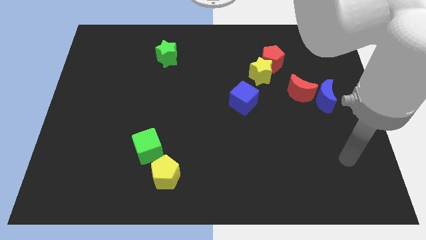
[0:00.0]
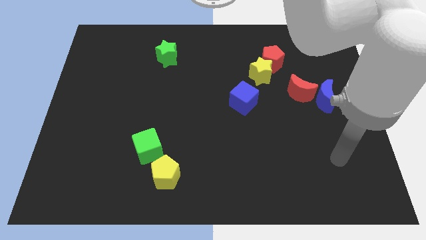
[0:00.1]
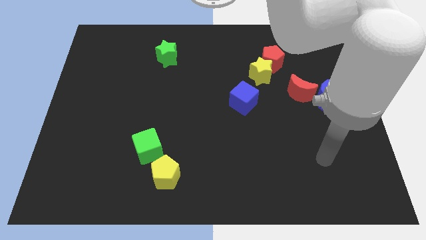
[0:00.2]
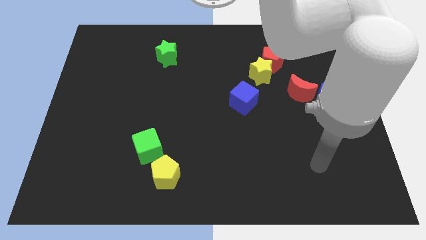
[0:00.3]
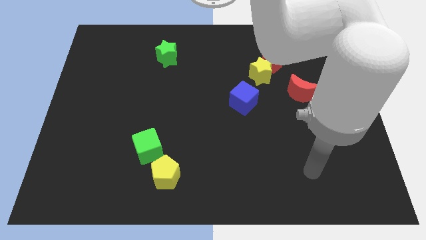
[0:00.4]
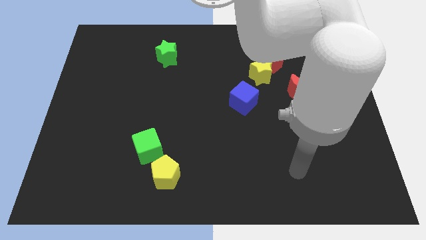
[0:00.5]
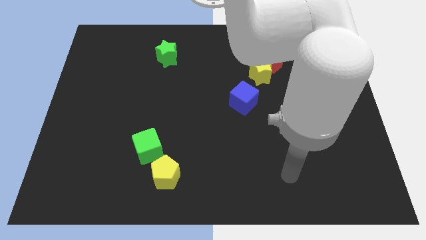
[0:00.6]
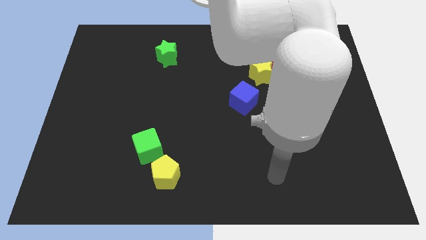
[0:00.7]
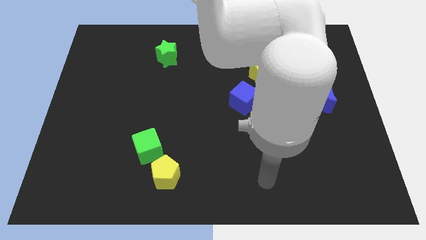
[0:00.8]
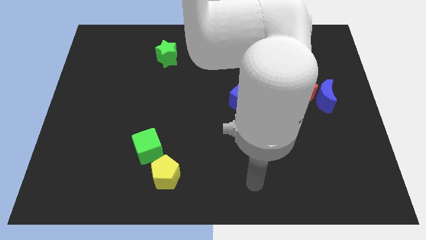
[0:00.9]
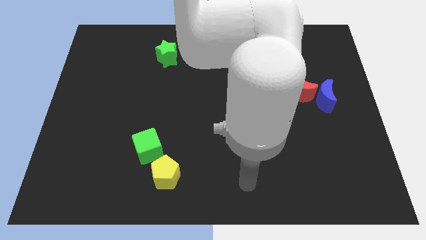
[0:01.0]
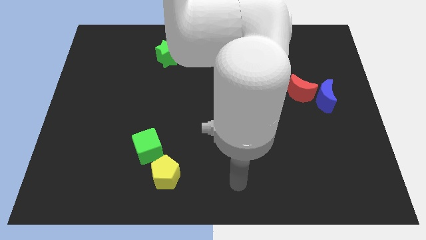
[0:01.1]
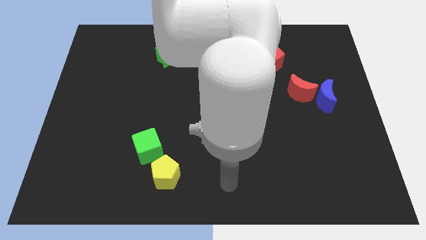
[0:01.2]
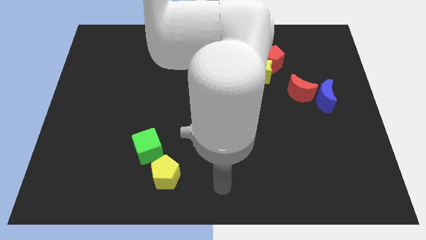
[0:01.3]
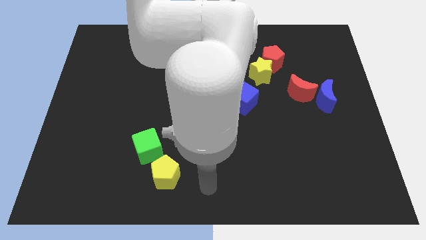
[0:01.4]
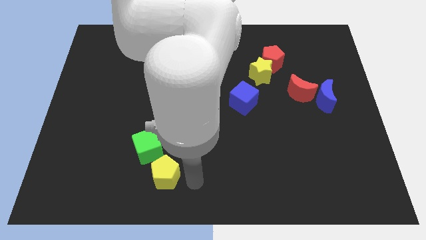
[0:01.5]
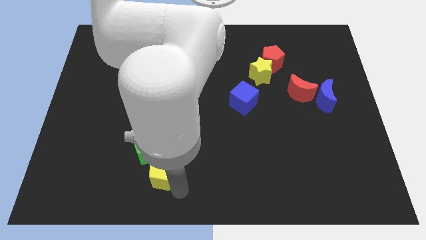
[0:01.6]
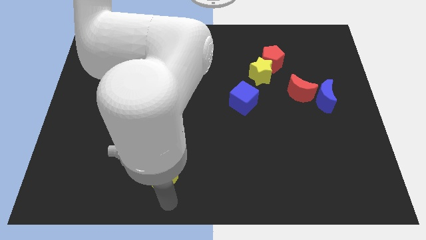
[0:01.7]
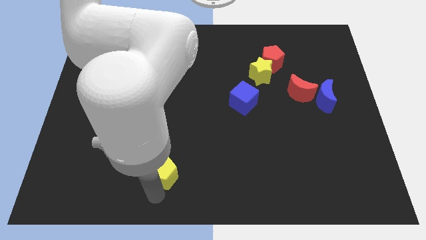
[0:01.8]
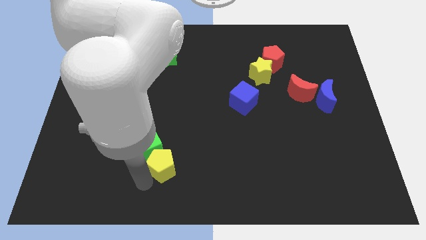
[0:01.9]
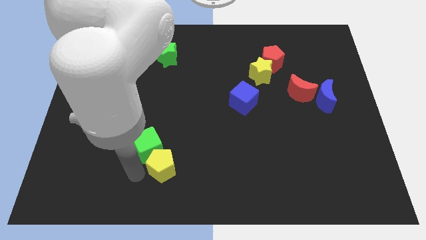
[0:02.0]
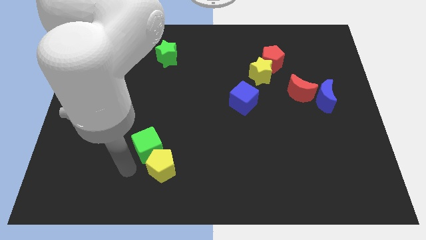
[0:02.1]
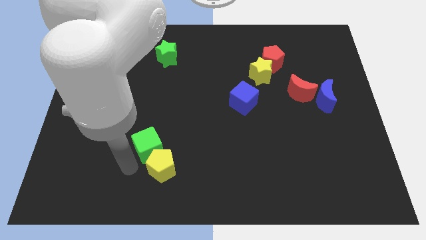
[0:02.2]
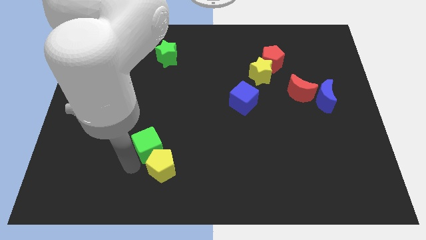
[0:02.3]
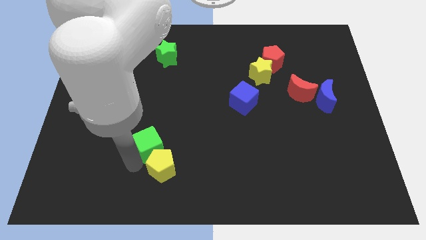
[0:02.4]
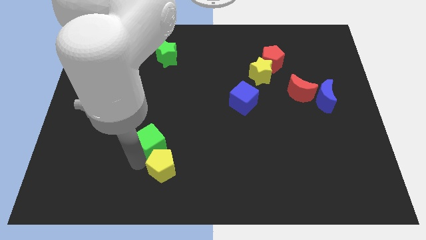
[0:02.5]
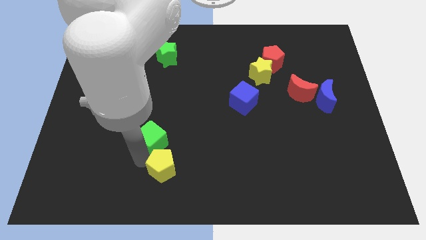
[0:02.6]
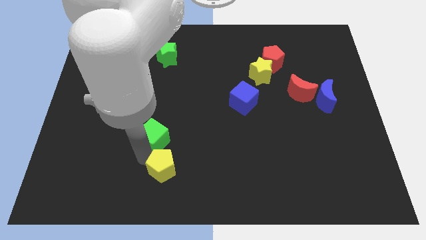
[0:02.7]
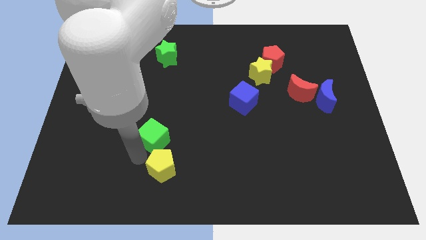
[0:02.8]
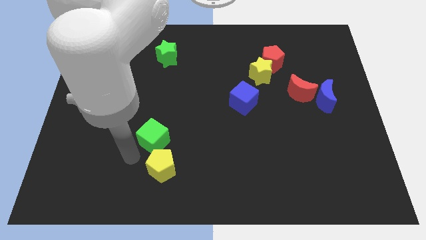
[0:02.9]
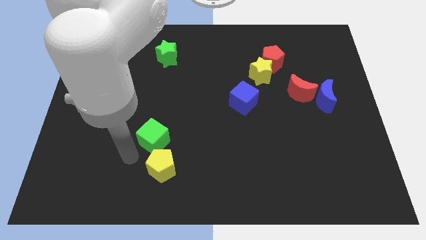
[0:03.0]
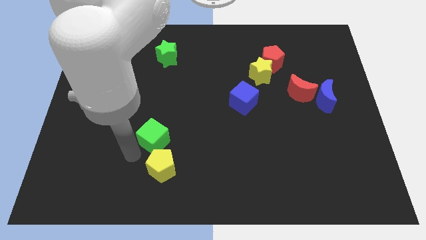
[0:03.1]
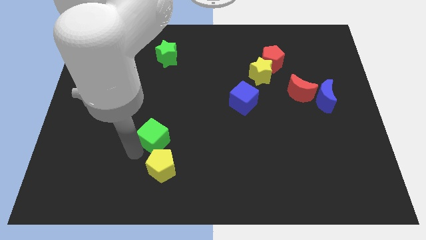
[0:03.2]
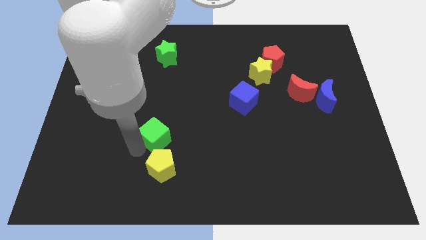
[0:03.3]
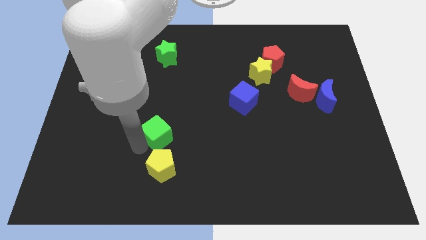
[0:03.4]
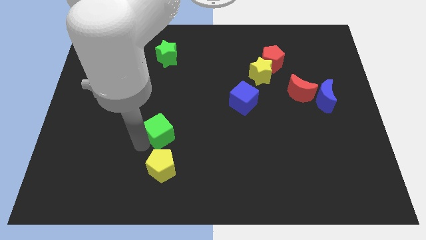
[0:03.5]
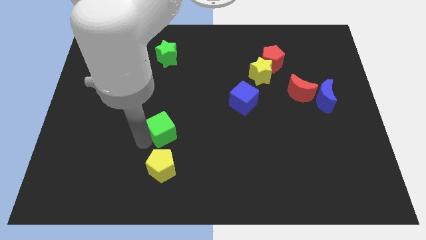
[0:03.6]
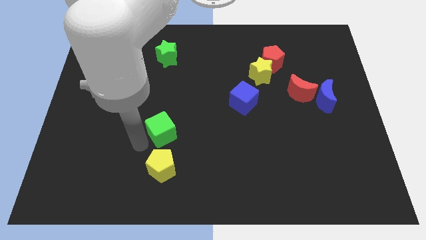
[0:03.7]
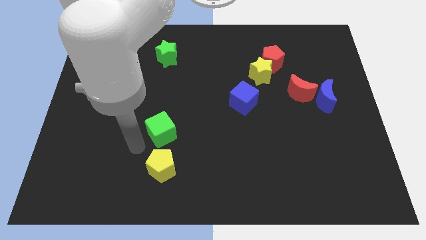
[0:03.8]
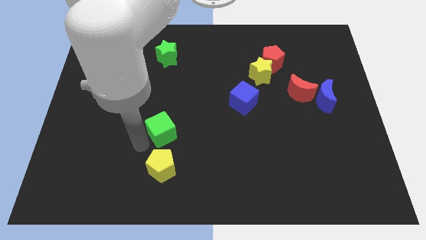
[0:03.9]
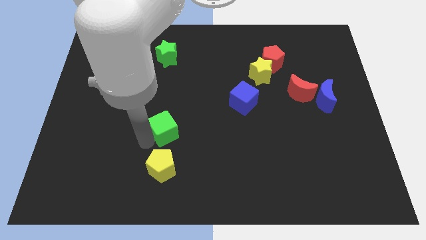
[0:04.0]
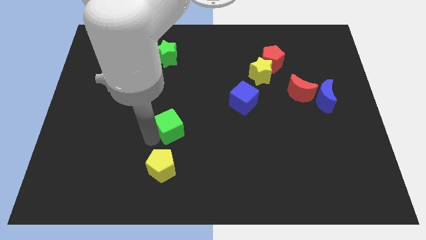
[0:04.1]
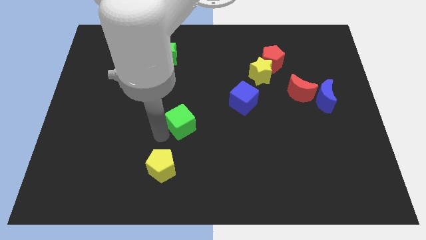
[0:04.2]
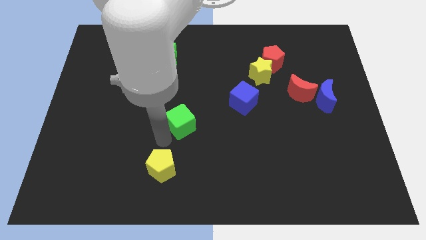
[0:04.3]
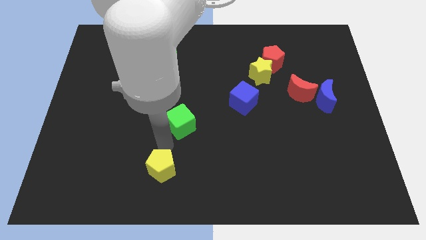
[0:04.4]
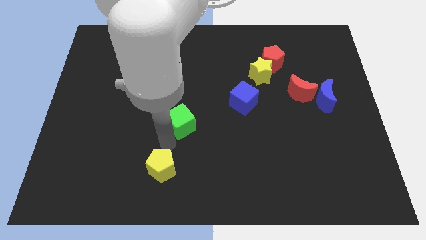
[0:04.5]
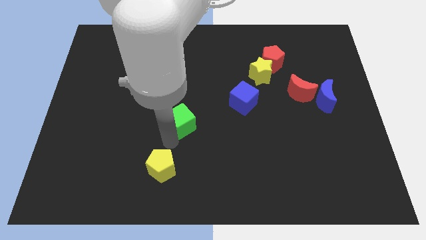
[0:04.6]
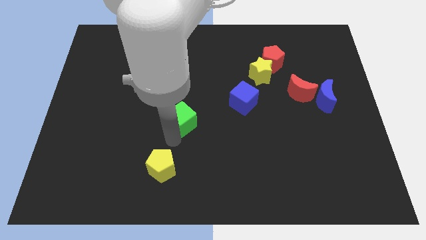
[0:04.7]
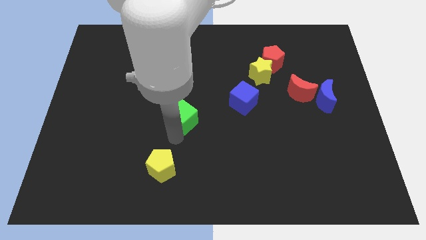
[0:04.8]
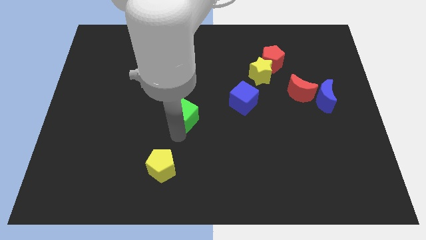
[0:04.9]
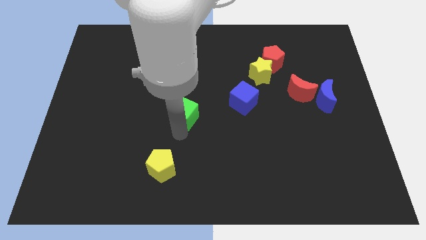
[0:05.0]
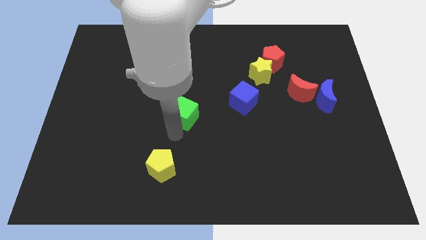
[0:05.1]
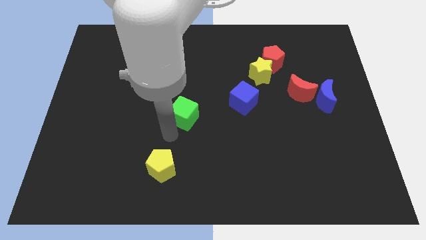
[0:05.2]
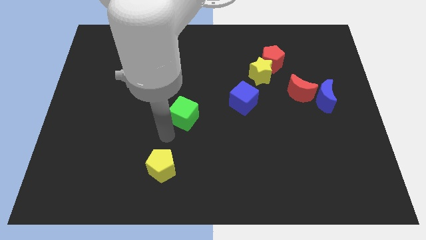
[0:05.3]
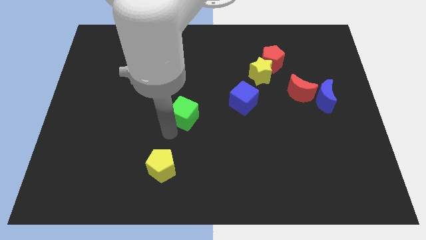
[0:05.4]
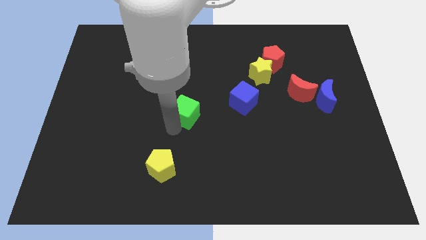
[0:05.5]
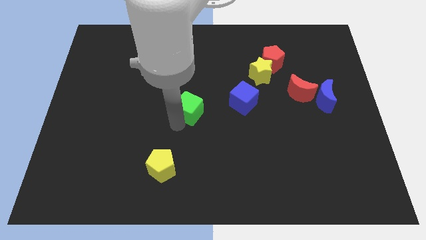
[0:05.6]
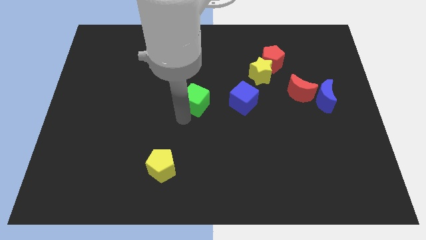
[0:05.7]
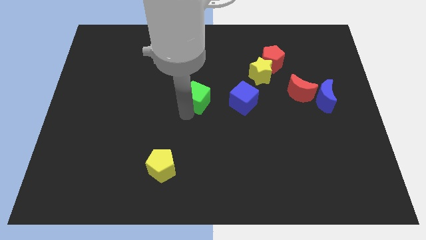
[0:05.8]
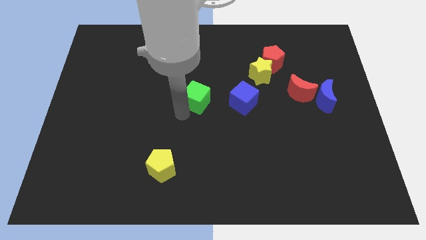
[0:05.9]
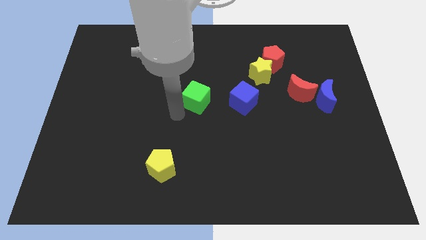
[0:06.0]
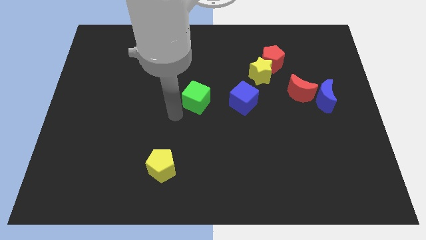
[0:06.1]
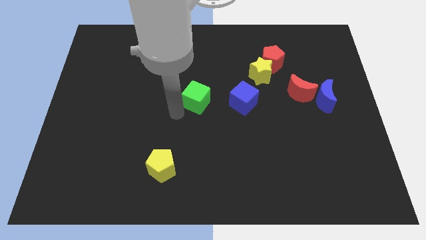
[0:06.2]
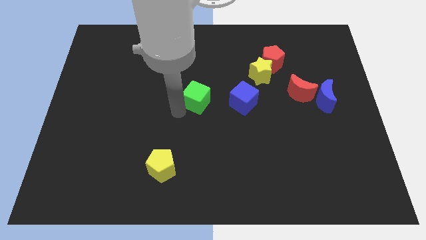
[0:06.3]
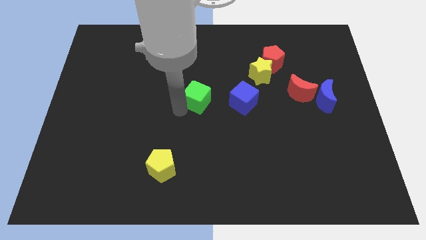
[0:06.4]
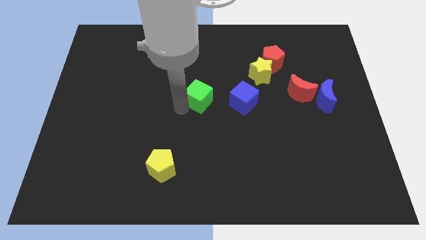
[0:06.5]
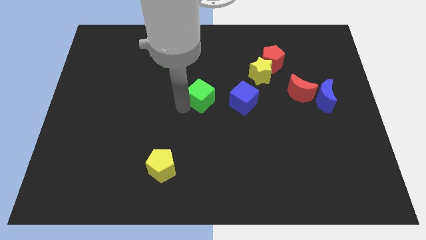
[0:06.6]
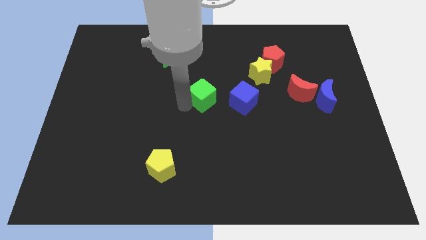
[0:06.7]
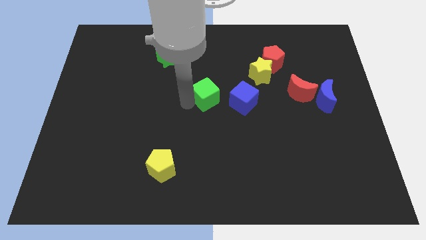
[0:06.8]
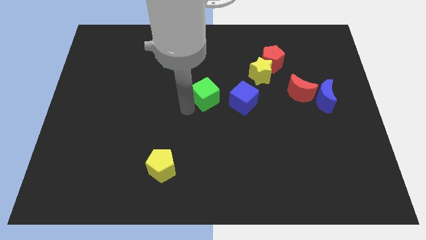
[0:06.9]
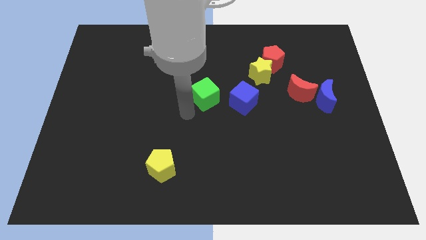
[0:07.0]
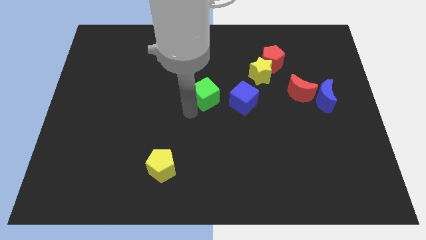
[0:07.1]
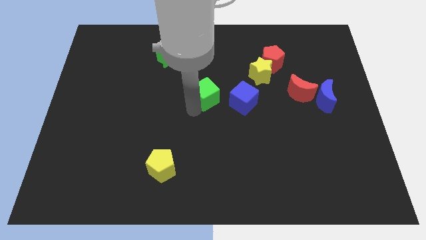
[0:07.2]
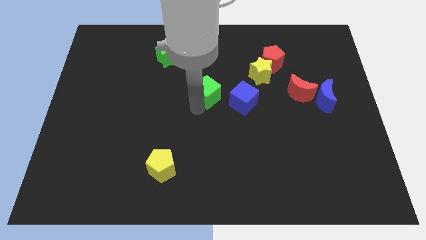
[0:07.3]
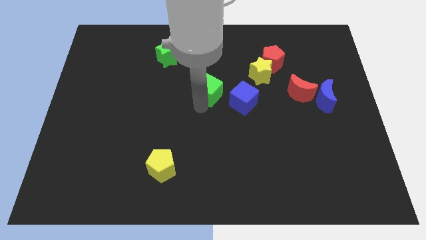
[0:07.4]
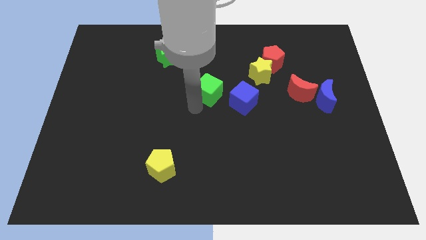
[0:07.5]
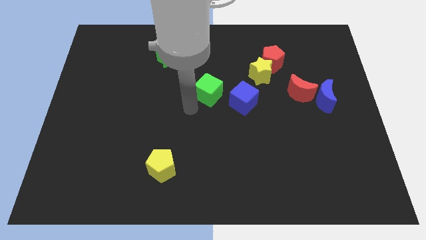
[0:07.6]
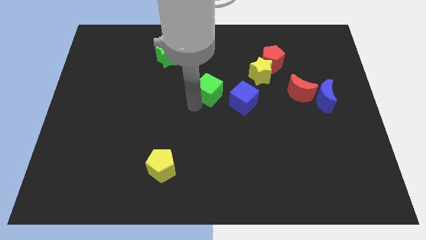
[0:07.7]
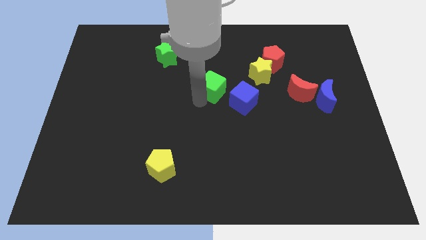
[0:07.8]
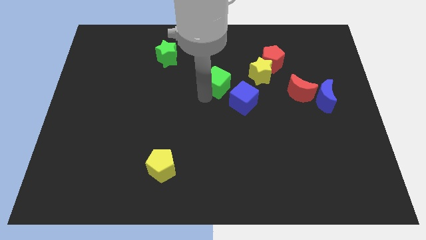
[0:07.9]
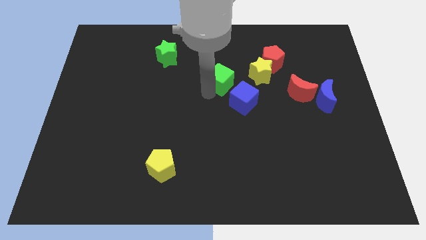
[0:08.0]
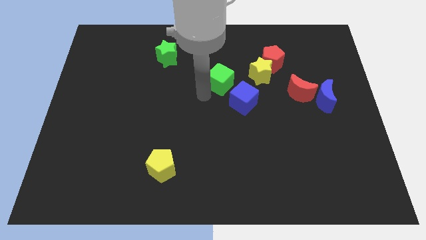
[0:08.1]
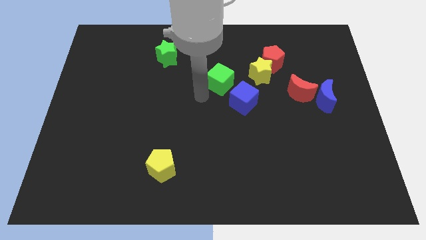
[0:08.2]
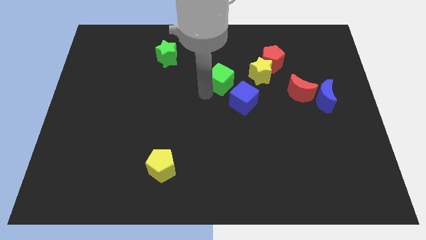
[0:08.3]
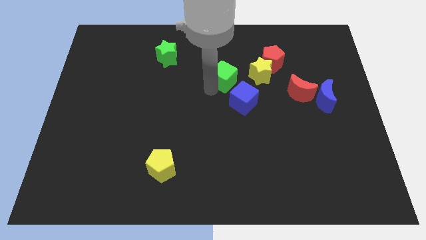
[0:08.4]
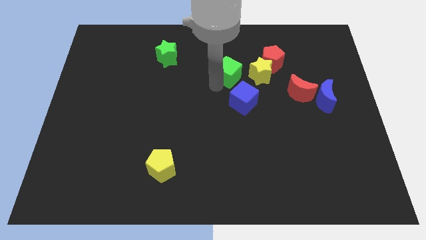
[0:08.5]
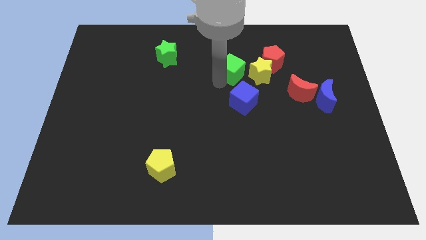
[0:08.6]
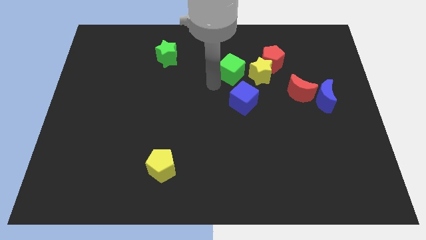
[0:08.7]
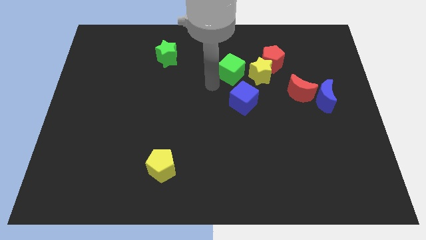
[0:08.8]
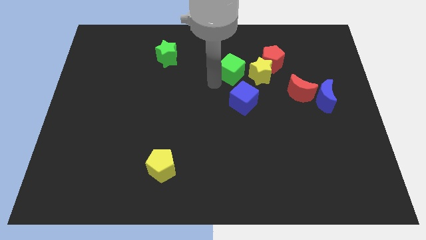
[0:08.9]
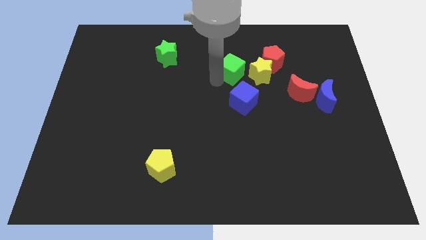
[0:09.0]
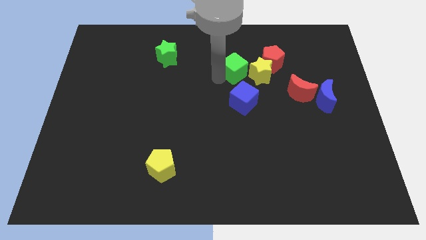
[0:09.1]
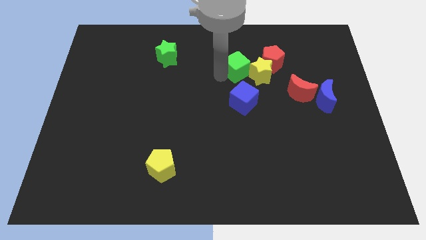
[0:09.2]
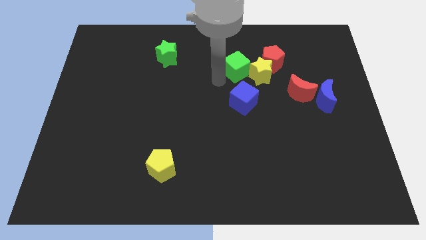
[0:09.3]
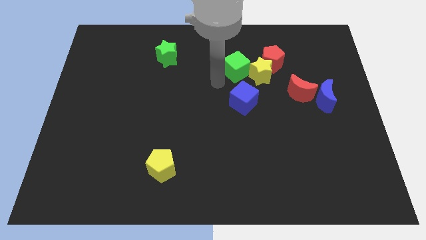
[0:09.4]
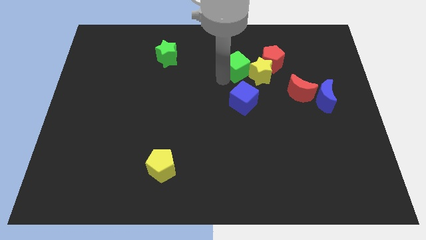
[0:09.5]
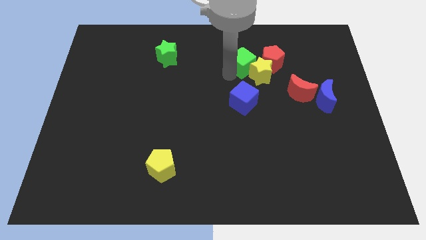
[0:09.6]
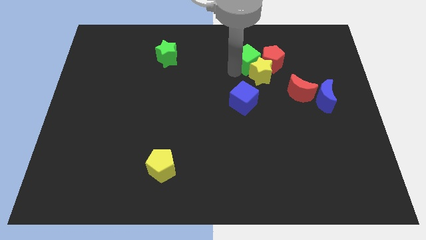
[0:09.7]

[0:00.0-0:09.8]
move the green cube next to the red pentagon
